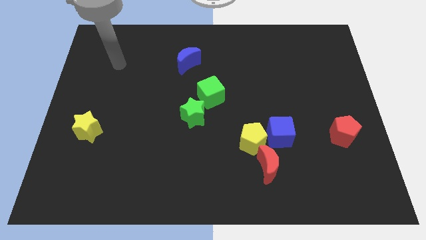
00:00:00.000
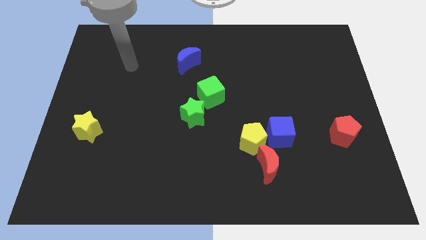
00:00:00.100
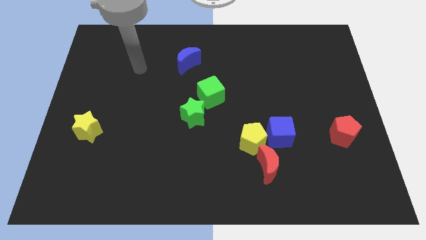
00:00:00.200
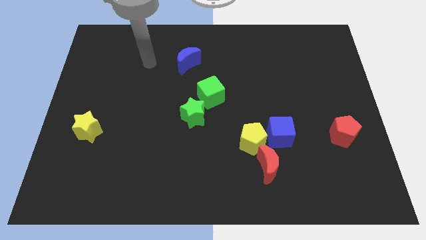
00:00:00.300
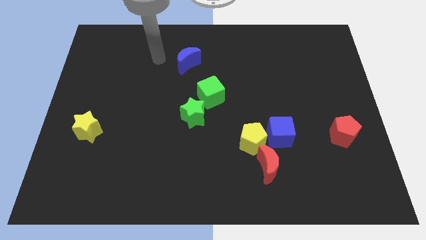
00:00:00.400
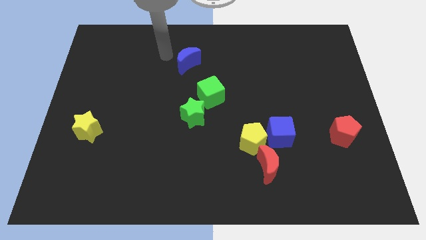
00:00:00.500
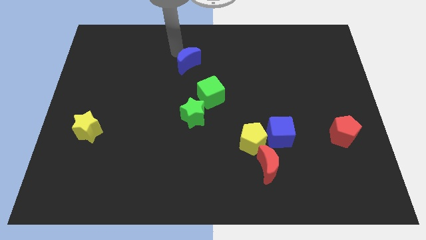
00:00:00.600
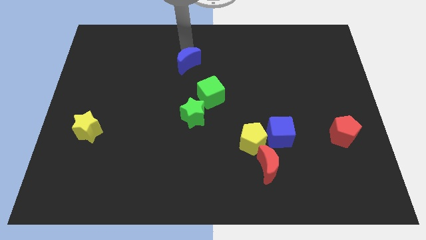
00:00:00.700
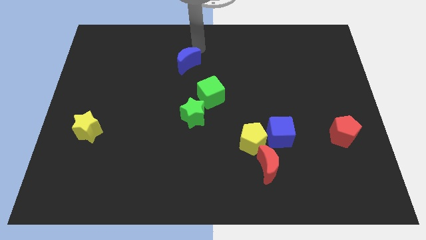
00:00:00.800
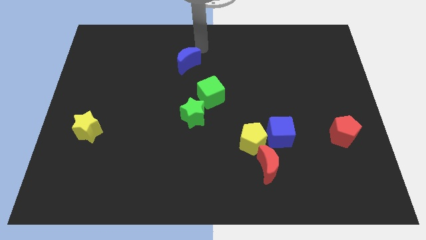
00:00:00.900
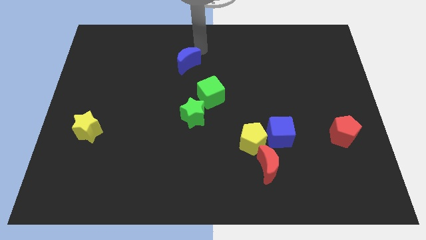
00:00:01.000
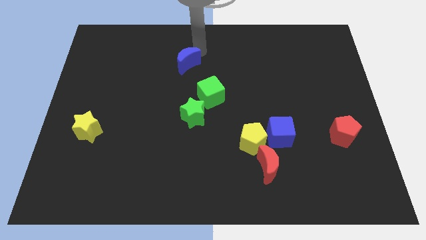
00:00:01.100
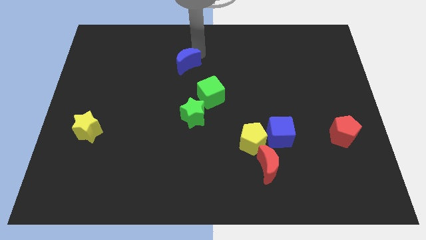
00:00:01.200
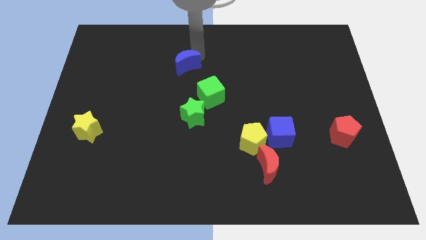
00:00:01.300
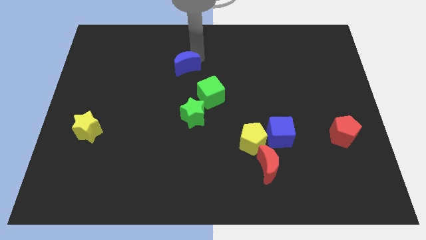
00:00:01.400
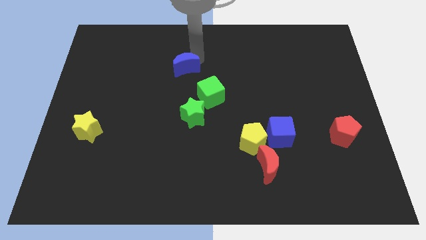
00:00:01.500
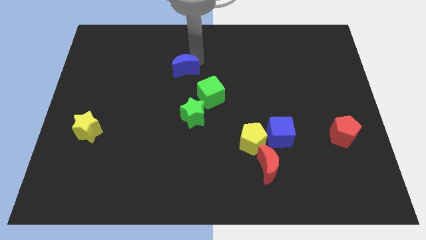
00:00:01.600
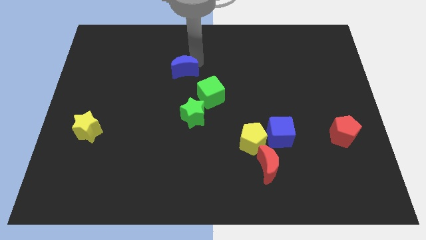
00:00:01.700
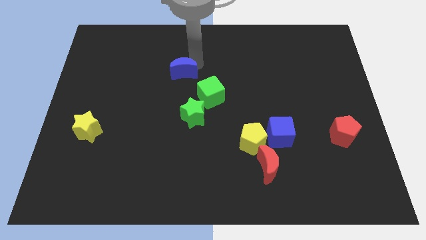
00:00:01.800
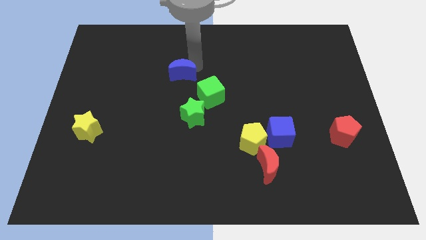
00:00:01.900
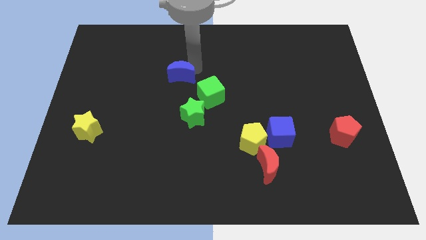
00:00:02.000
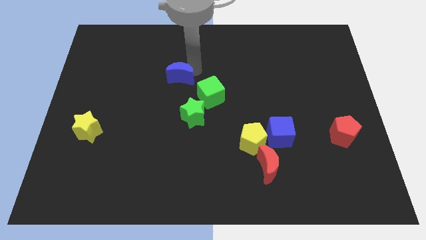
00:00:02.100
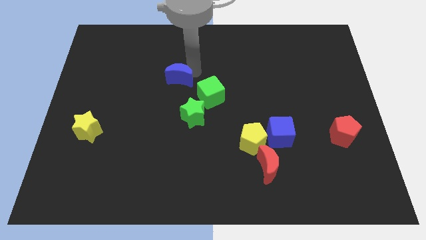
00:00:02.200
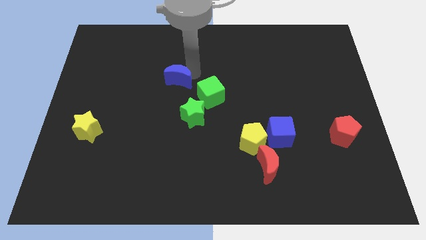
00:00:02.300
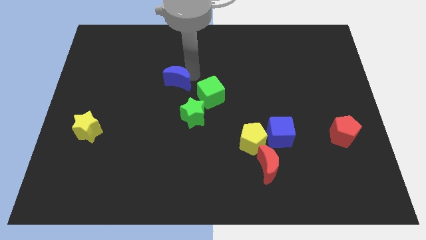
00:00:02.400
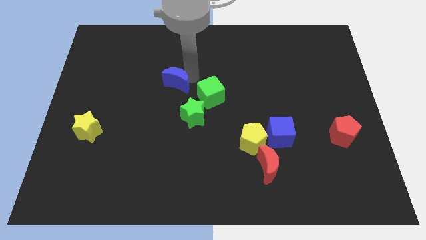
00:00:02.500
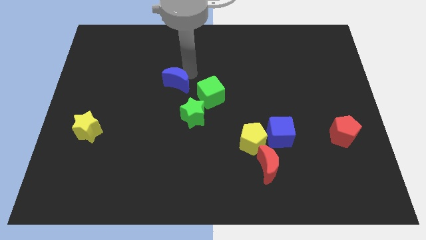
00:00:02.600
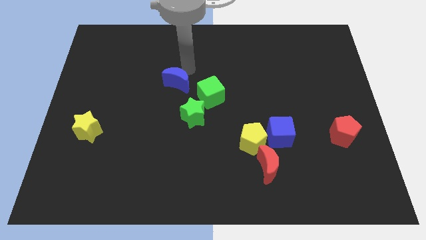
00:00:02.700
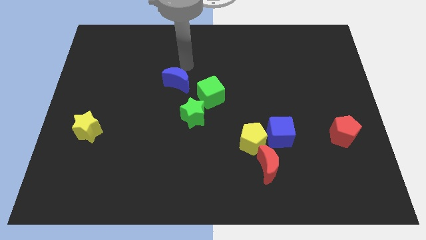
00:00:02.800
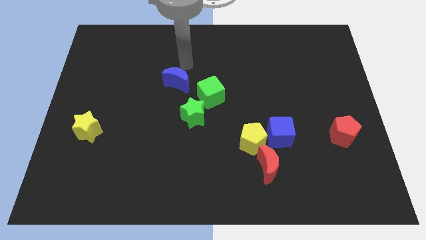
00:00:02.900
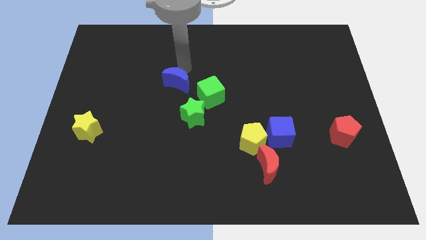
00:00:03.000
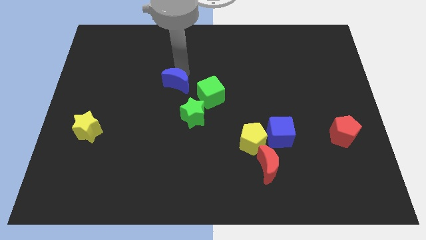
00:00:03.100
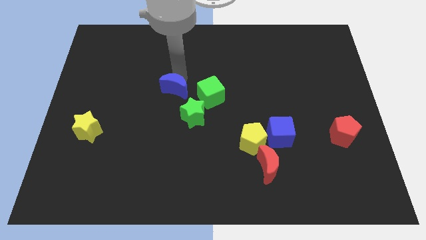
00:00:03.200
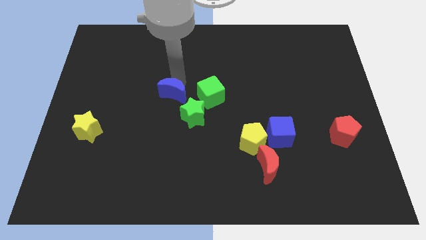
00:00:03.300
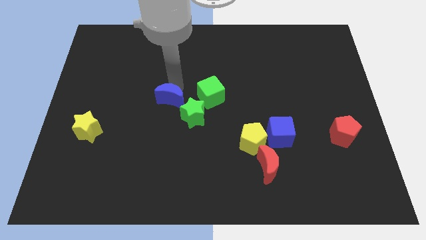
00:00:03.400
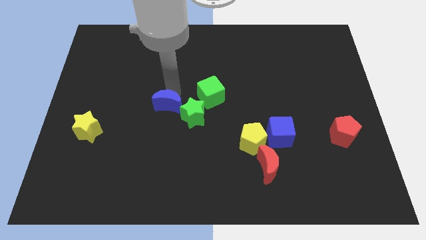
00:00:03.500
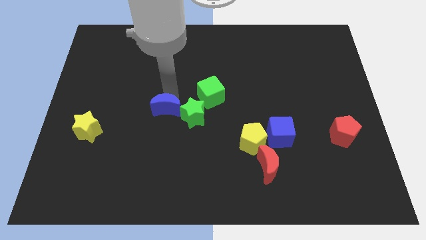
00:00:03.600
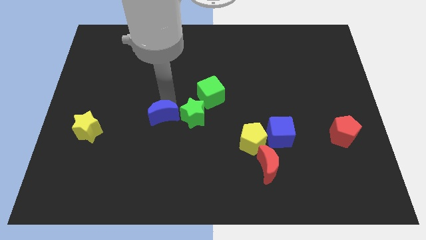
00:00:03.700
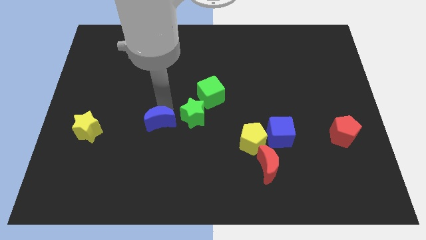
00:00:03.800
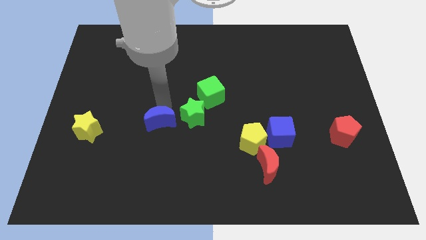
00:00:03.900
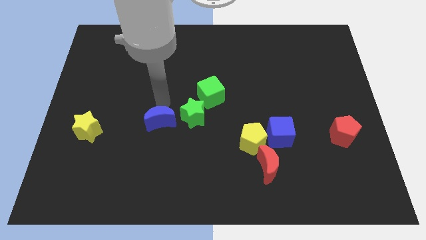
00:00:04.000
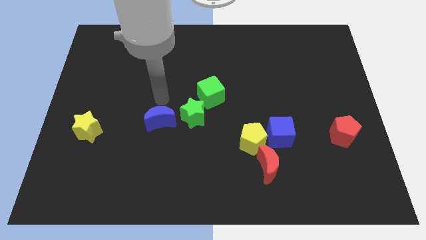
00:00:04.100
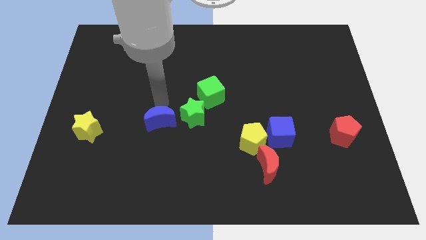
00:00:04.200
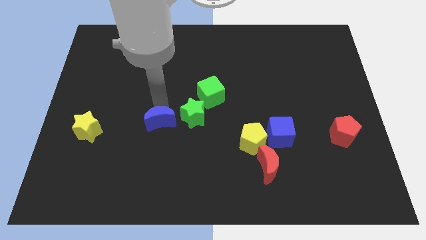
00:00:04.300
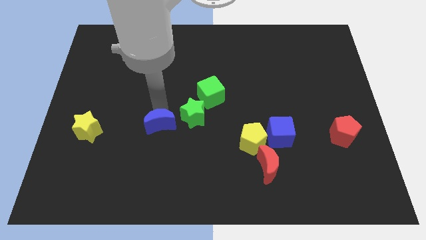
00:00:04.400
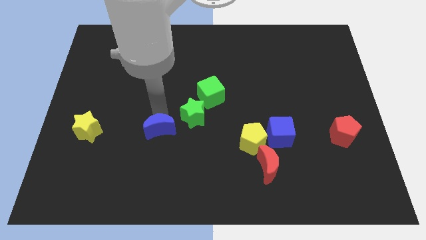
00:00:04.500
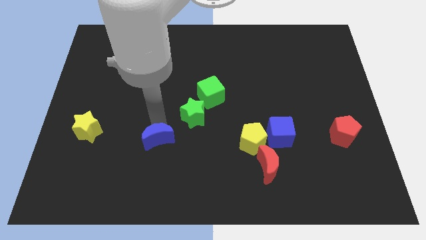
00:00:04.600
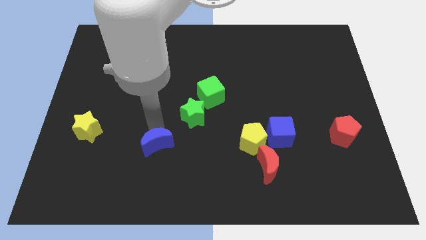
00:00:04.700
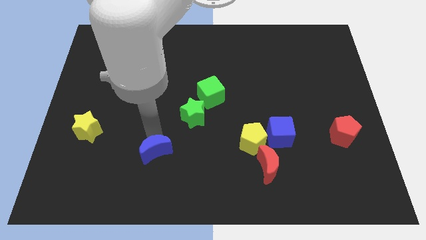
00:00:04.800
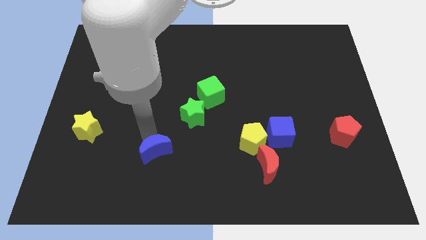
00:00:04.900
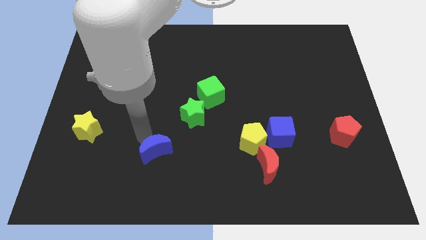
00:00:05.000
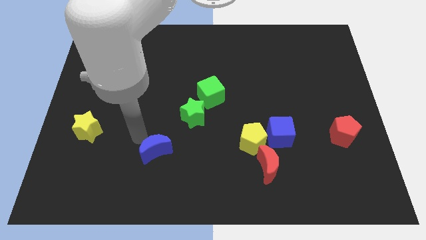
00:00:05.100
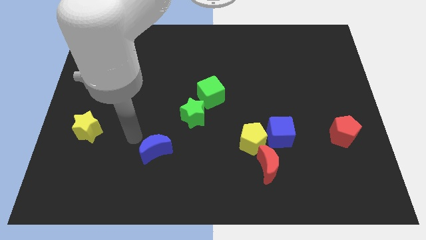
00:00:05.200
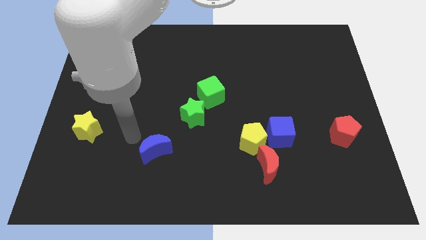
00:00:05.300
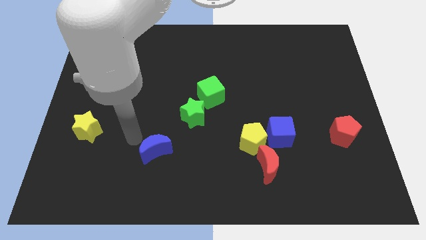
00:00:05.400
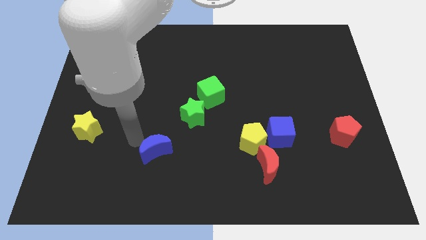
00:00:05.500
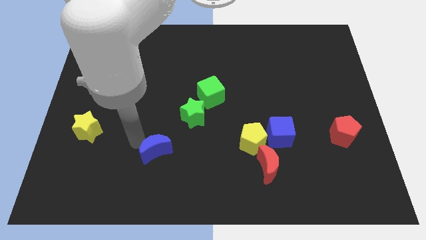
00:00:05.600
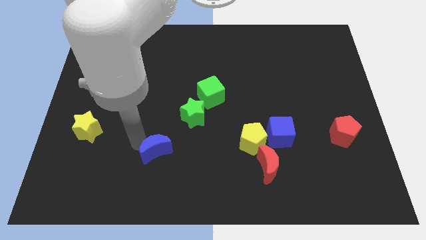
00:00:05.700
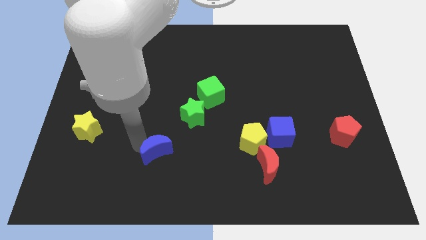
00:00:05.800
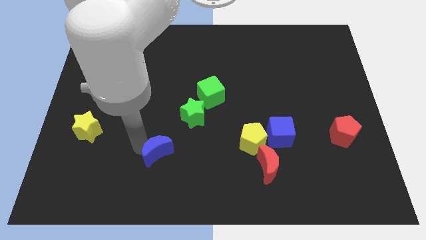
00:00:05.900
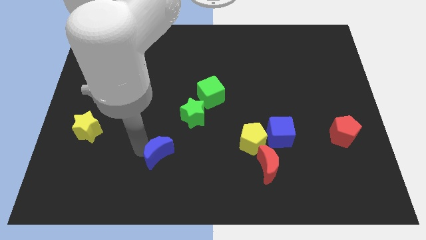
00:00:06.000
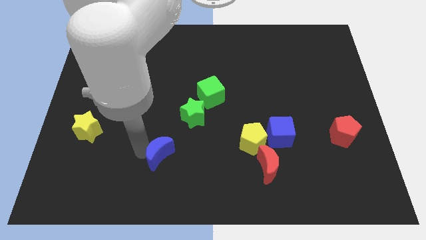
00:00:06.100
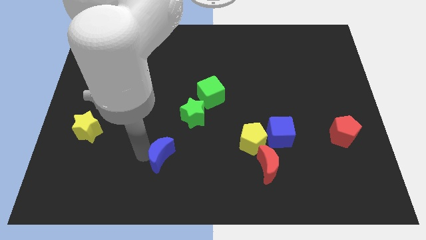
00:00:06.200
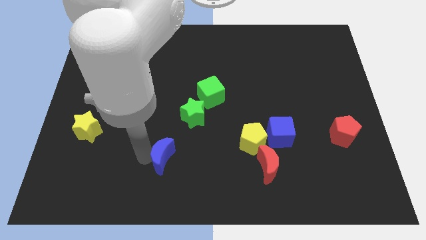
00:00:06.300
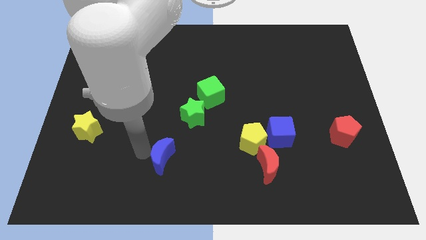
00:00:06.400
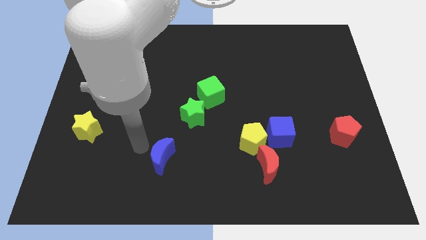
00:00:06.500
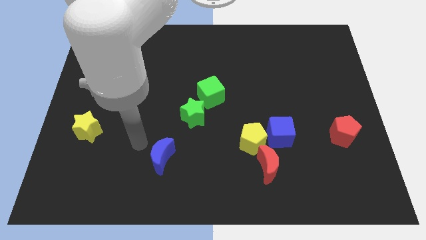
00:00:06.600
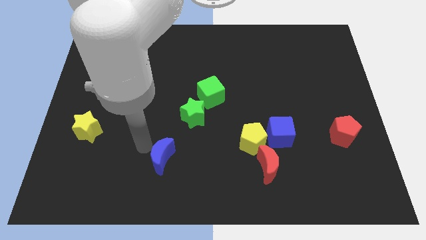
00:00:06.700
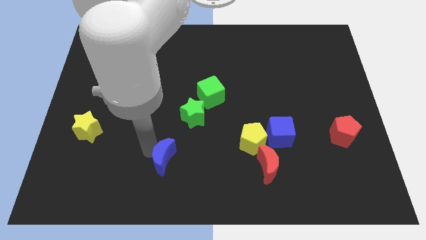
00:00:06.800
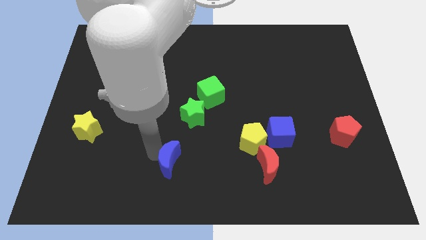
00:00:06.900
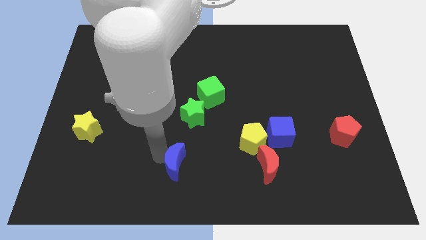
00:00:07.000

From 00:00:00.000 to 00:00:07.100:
push the blue moon to the bottom
